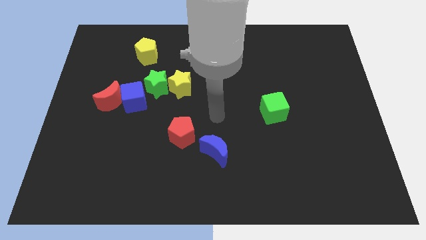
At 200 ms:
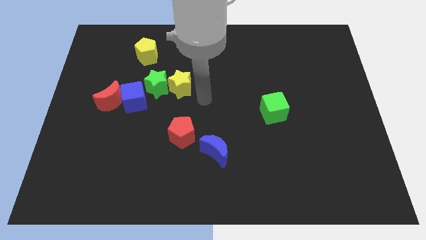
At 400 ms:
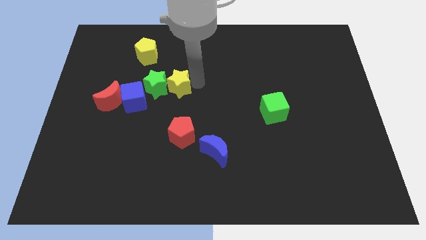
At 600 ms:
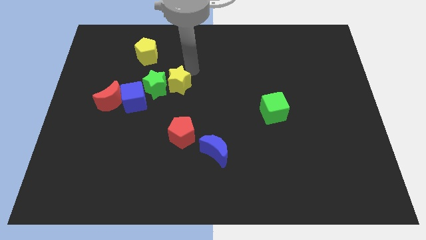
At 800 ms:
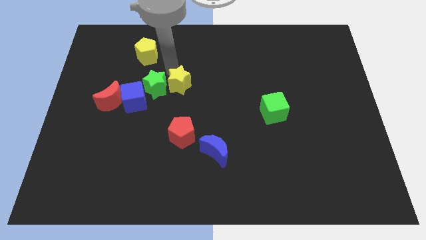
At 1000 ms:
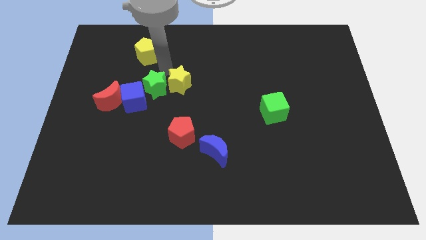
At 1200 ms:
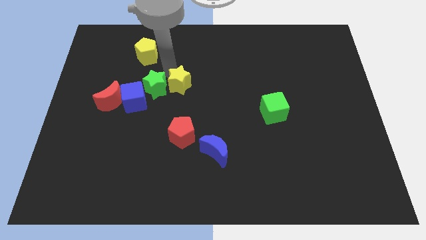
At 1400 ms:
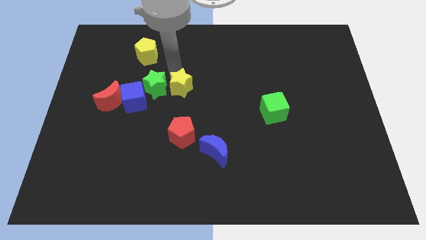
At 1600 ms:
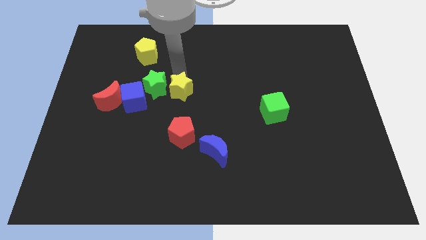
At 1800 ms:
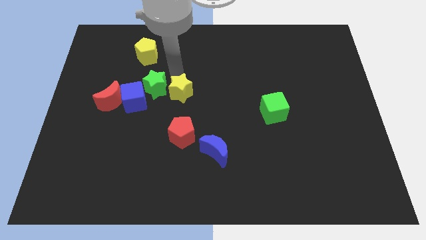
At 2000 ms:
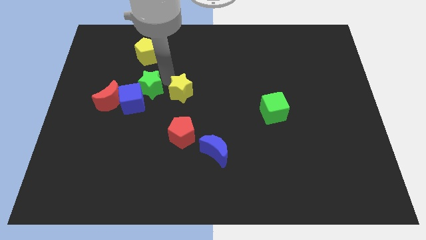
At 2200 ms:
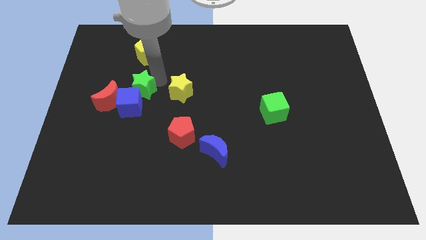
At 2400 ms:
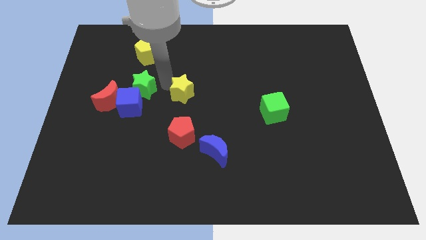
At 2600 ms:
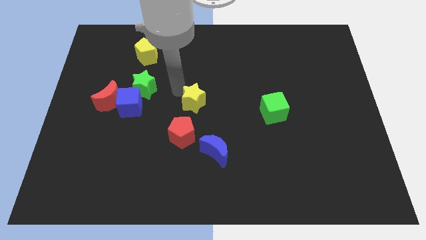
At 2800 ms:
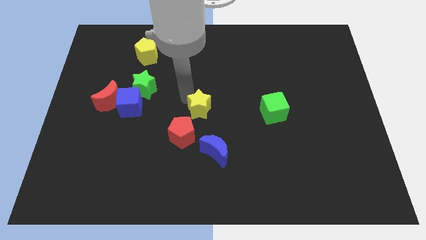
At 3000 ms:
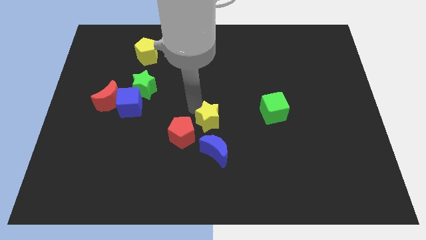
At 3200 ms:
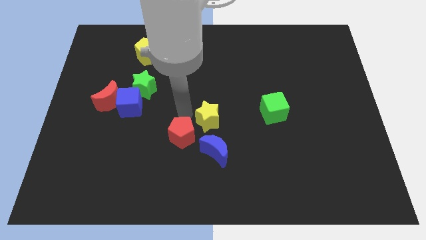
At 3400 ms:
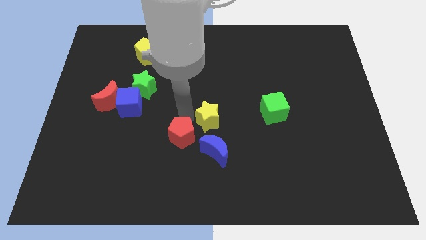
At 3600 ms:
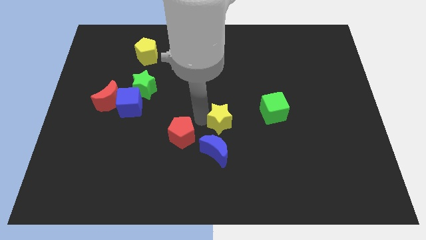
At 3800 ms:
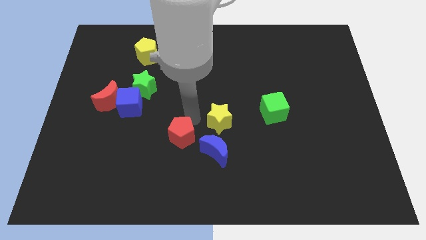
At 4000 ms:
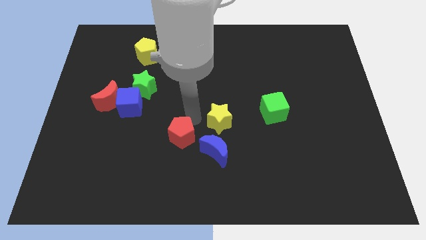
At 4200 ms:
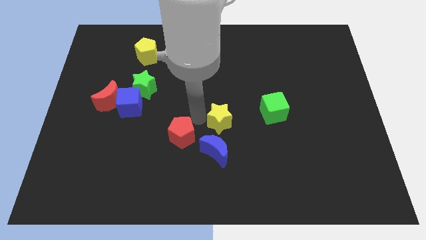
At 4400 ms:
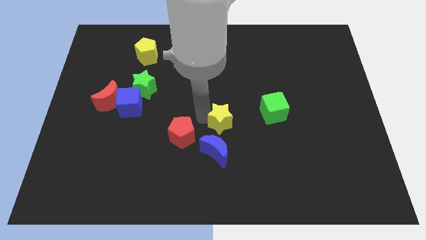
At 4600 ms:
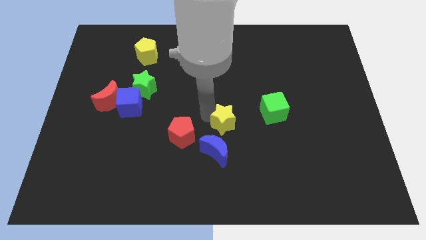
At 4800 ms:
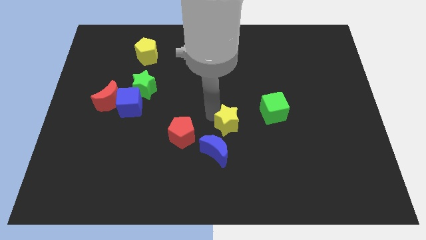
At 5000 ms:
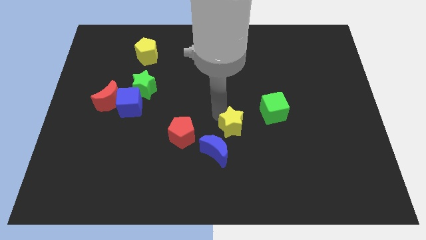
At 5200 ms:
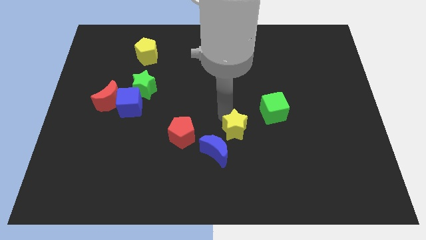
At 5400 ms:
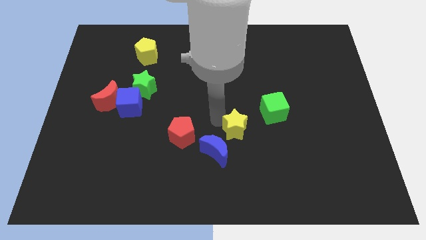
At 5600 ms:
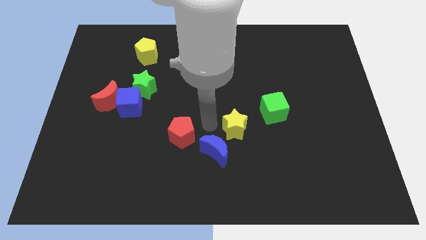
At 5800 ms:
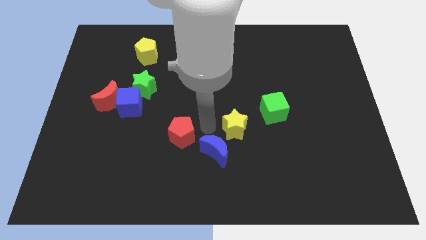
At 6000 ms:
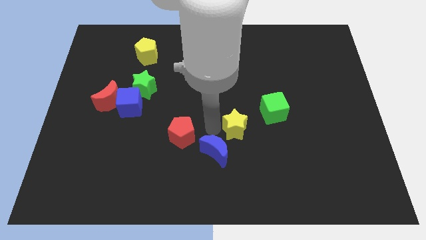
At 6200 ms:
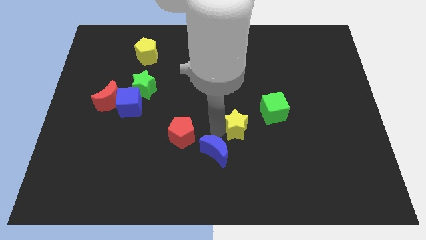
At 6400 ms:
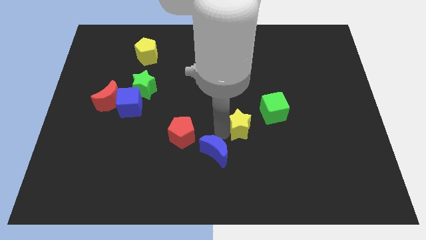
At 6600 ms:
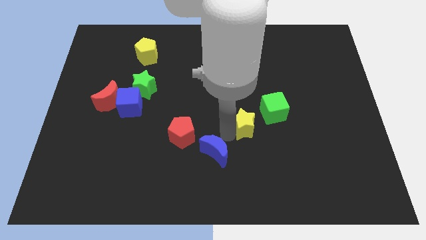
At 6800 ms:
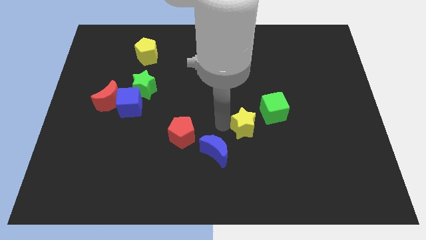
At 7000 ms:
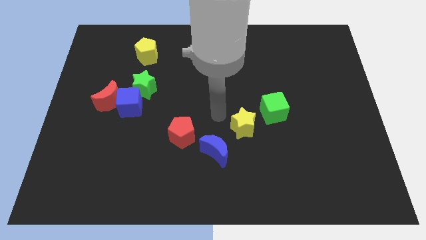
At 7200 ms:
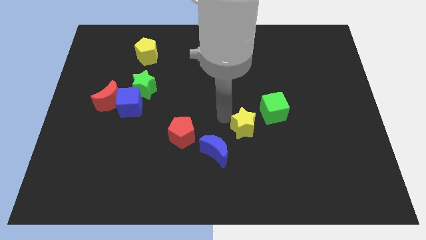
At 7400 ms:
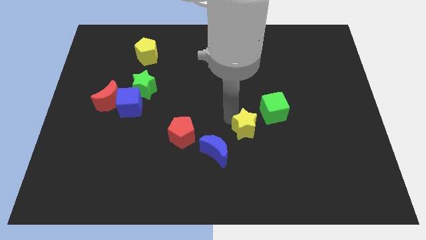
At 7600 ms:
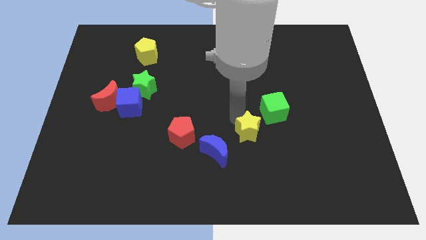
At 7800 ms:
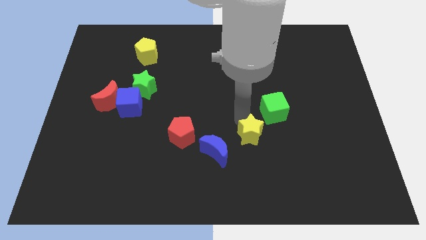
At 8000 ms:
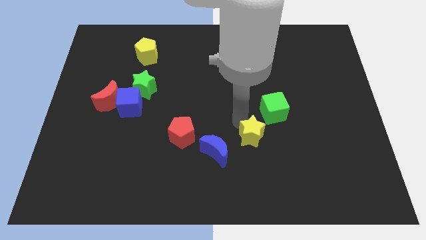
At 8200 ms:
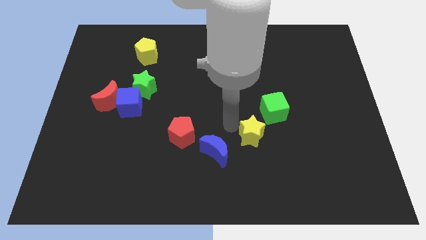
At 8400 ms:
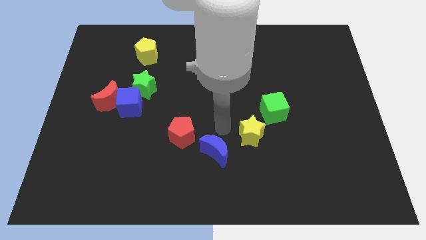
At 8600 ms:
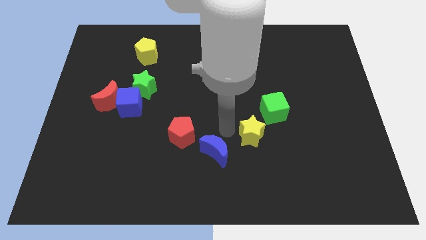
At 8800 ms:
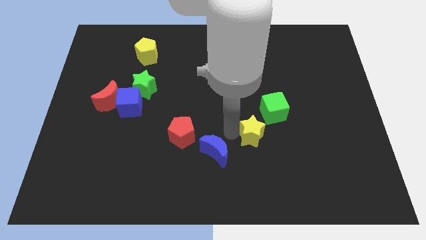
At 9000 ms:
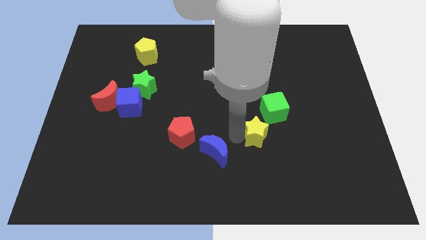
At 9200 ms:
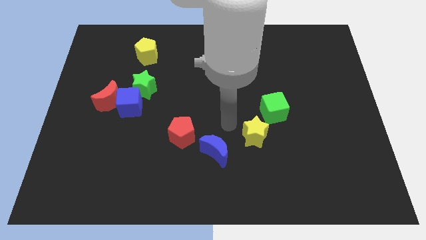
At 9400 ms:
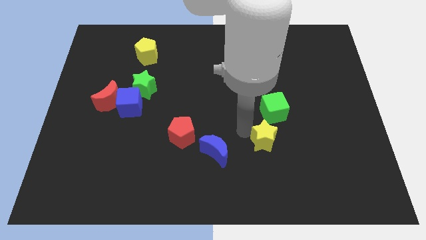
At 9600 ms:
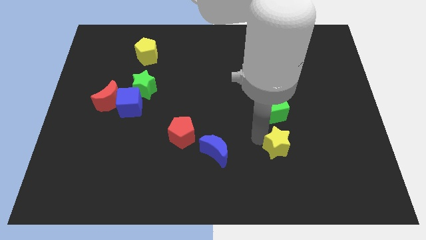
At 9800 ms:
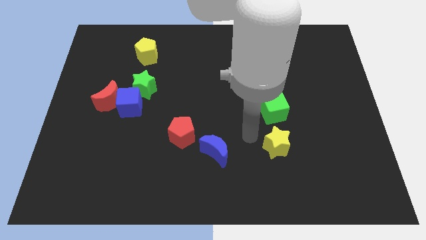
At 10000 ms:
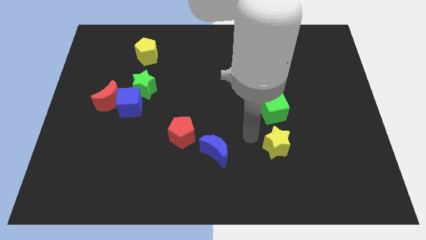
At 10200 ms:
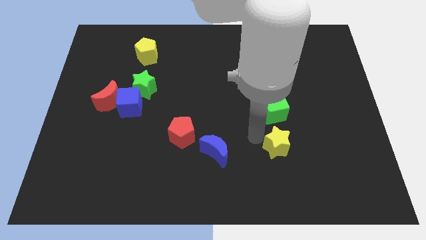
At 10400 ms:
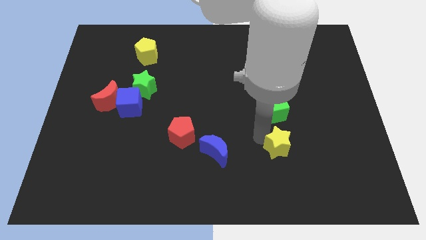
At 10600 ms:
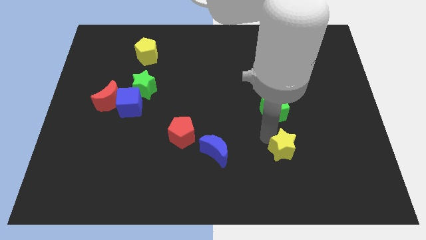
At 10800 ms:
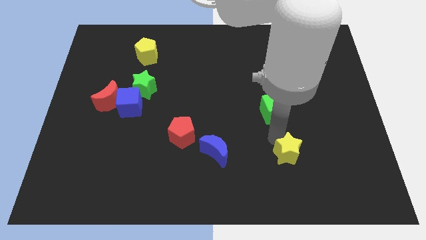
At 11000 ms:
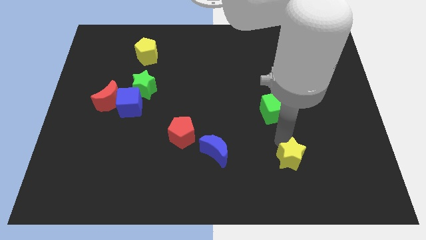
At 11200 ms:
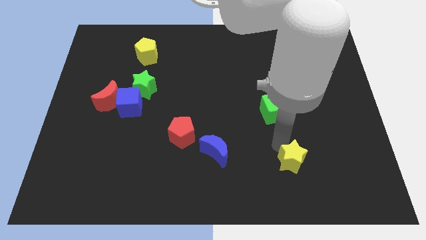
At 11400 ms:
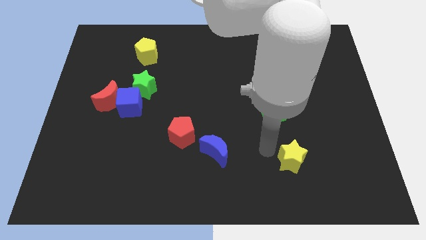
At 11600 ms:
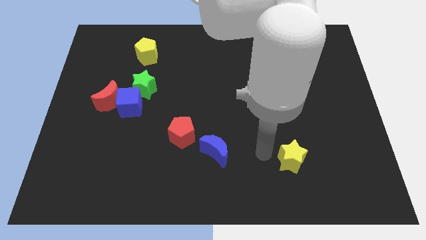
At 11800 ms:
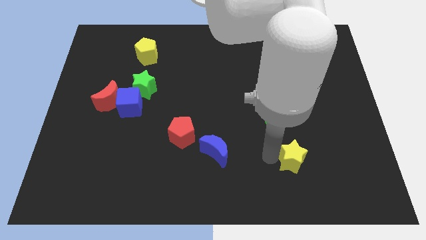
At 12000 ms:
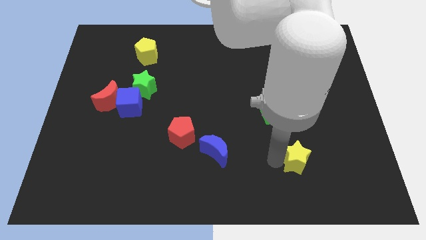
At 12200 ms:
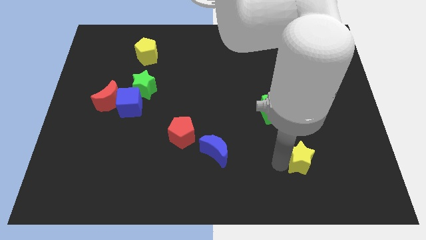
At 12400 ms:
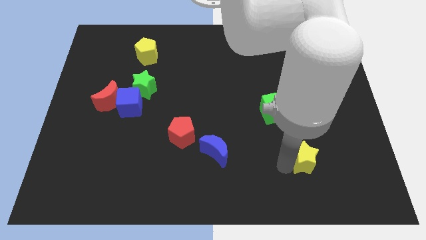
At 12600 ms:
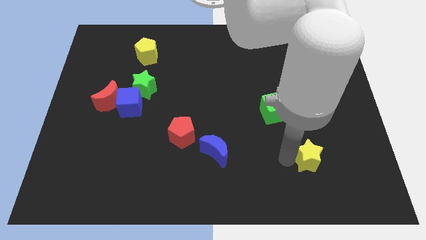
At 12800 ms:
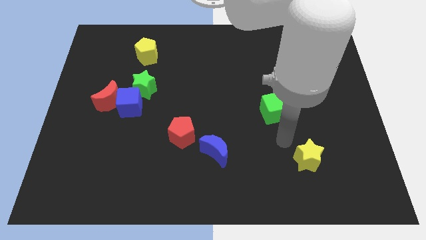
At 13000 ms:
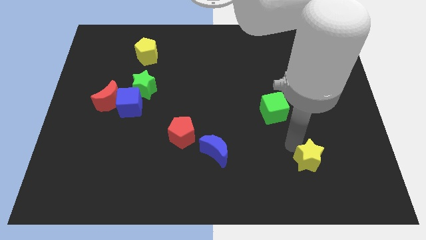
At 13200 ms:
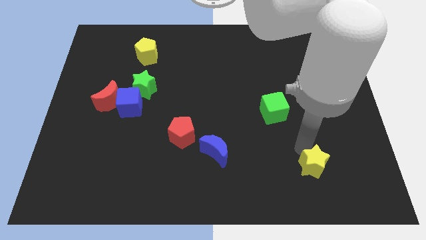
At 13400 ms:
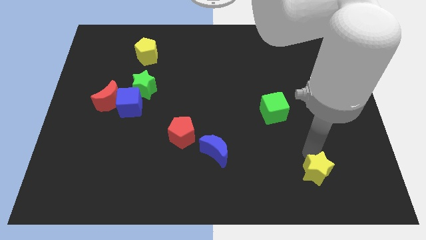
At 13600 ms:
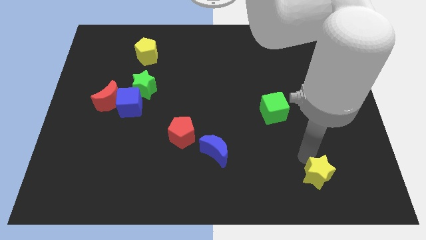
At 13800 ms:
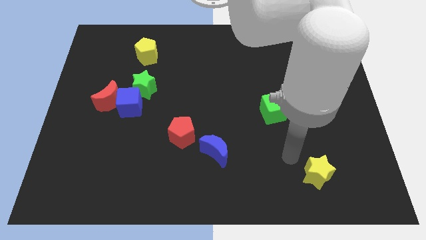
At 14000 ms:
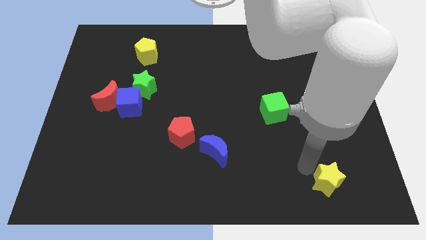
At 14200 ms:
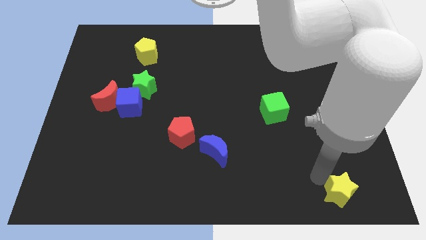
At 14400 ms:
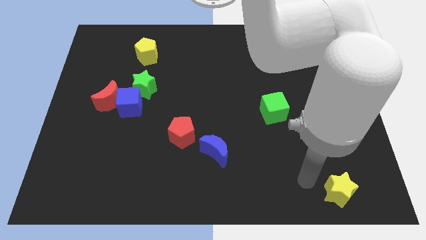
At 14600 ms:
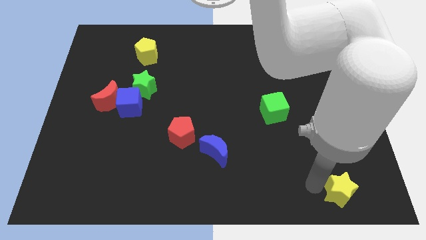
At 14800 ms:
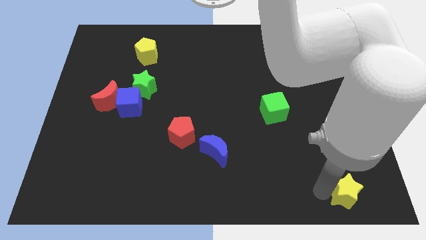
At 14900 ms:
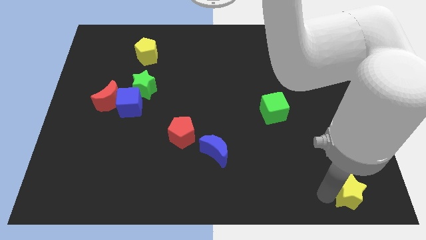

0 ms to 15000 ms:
slide the yellow star to the lower right corner

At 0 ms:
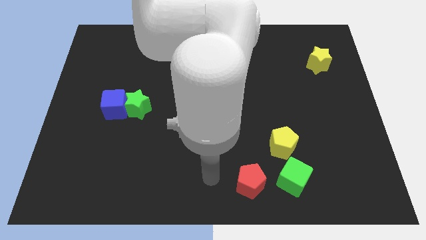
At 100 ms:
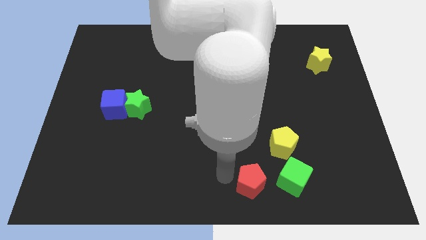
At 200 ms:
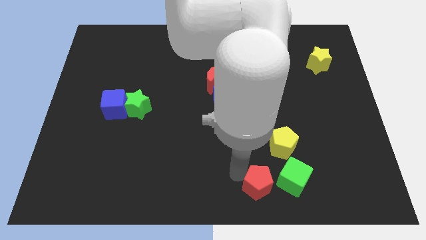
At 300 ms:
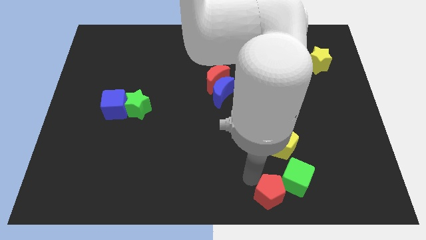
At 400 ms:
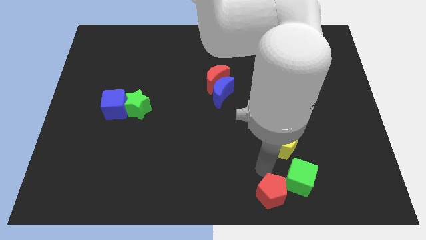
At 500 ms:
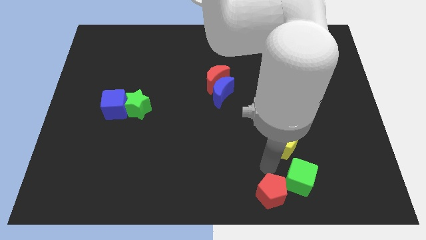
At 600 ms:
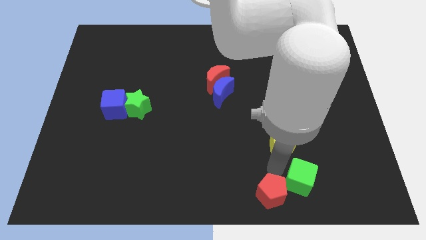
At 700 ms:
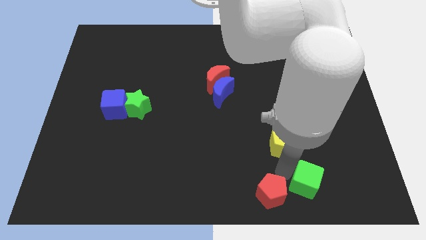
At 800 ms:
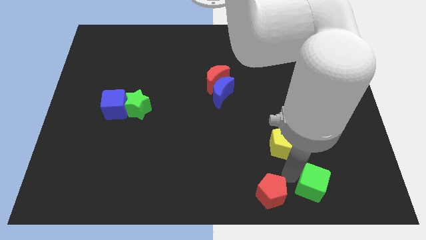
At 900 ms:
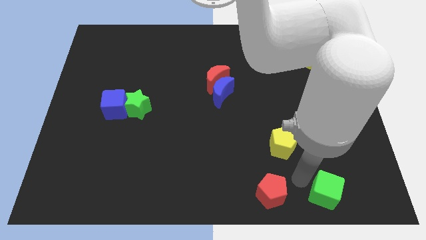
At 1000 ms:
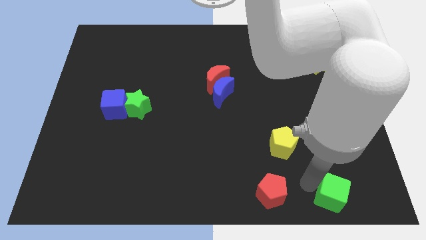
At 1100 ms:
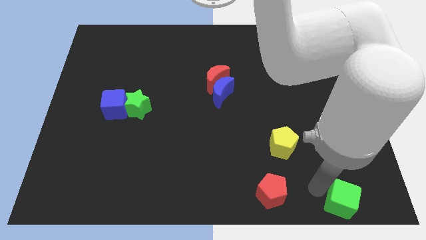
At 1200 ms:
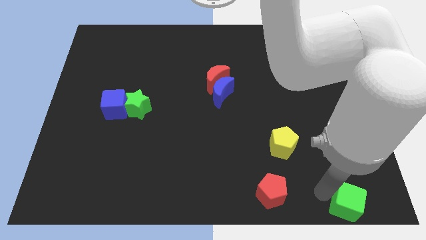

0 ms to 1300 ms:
put the green cube to the lower right corner
